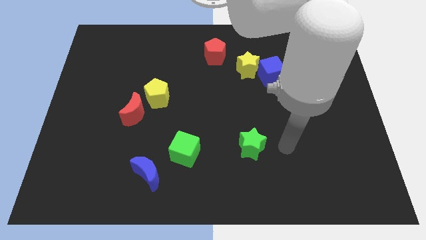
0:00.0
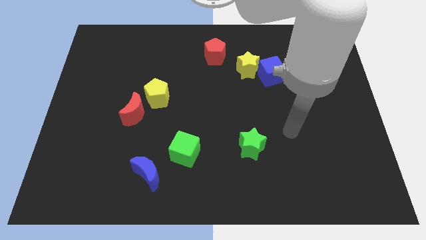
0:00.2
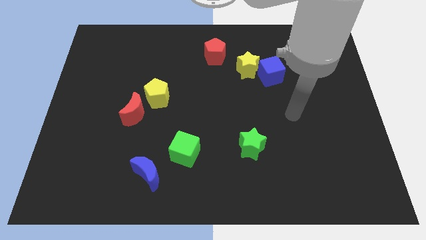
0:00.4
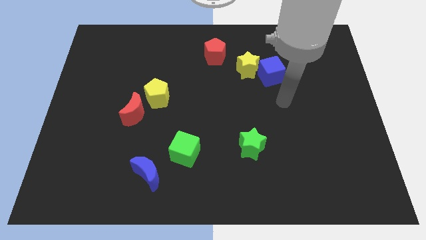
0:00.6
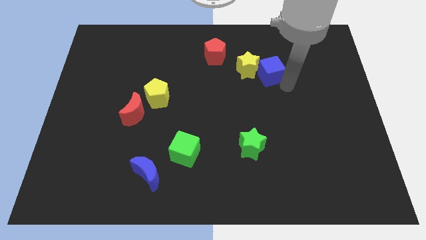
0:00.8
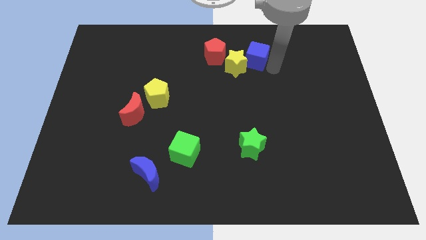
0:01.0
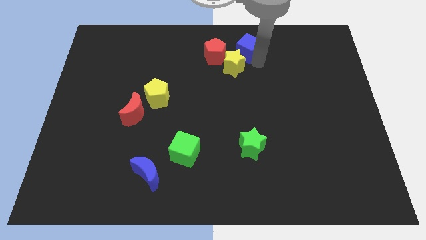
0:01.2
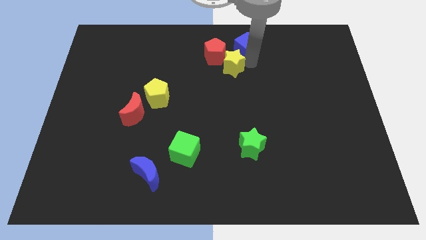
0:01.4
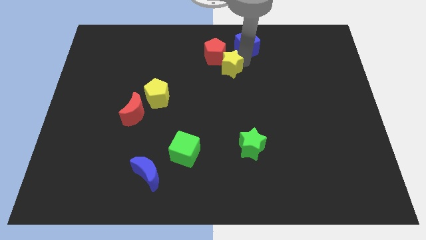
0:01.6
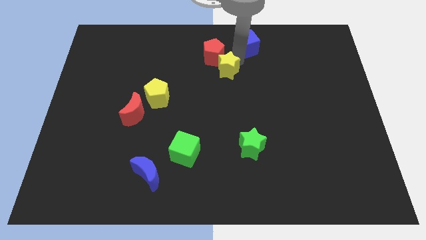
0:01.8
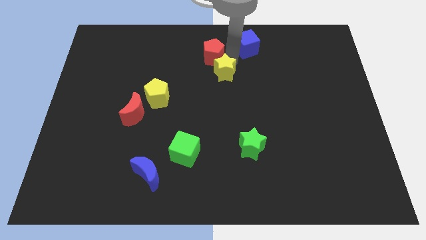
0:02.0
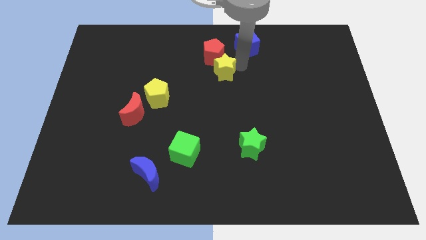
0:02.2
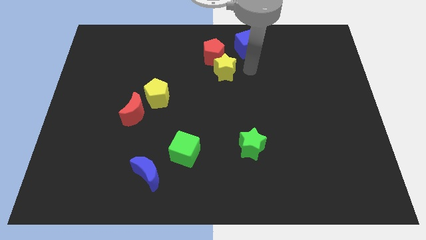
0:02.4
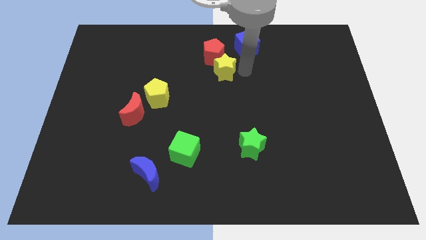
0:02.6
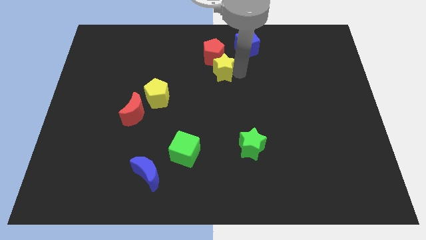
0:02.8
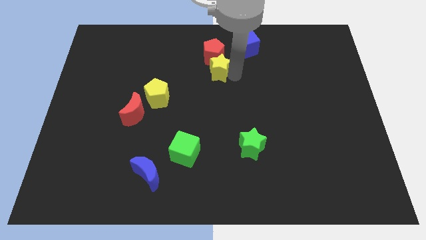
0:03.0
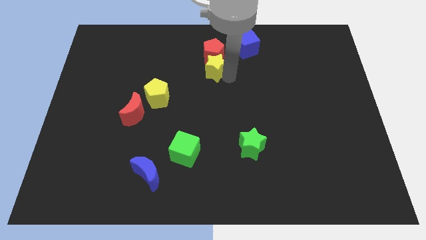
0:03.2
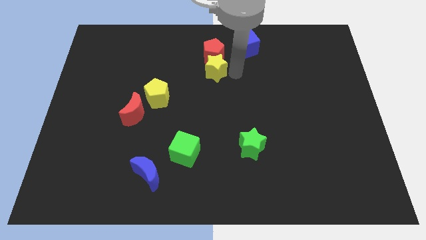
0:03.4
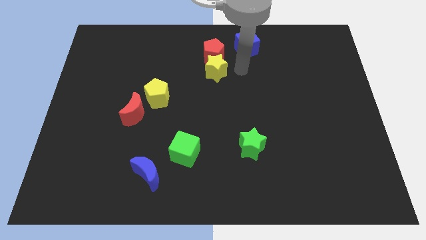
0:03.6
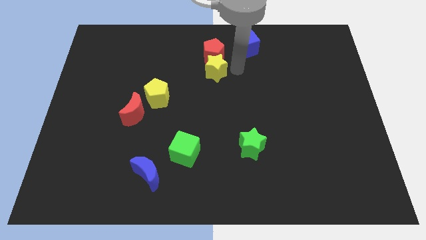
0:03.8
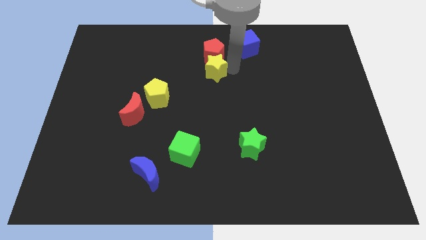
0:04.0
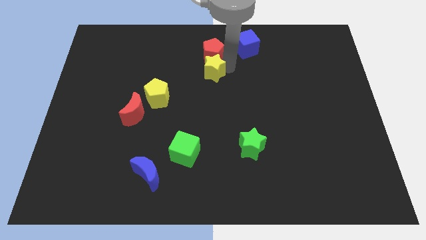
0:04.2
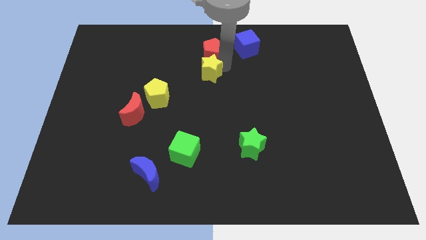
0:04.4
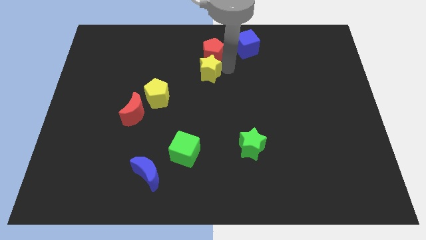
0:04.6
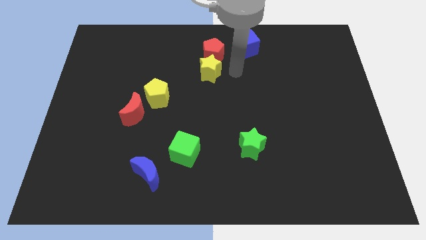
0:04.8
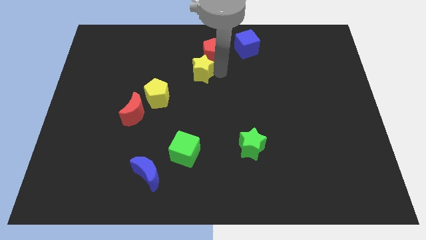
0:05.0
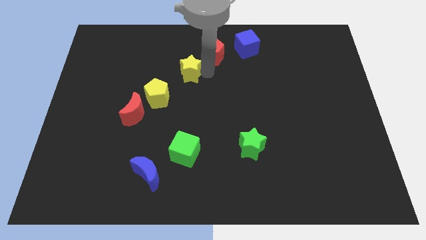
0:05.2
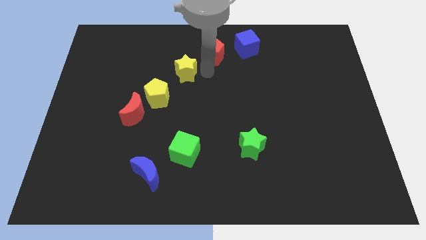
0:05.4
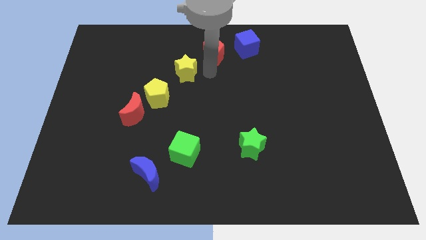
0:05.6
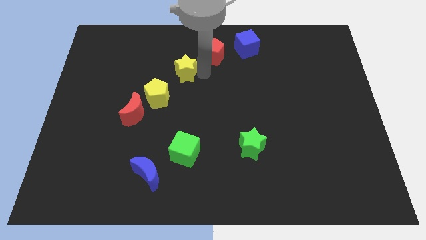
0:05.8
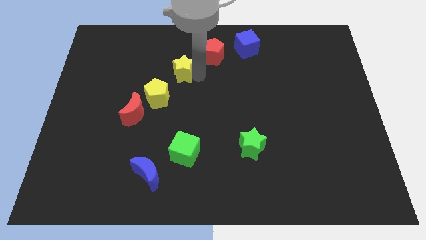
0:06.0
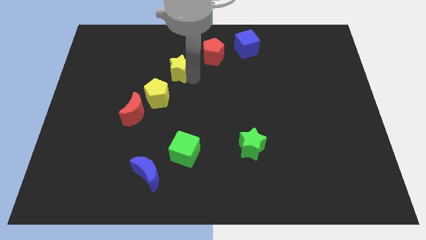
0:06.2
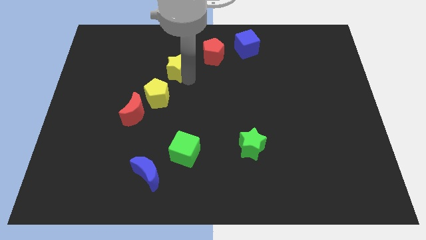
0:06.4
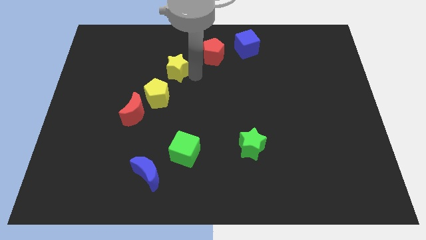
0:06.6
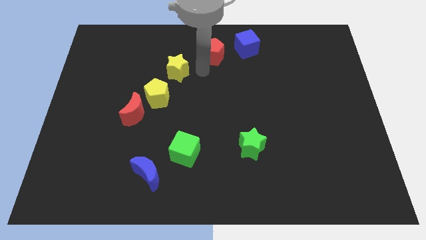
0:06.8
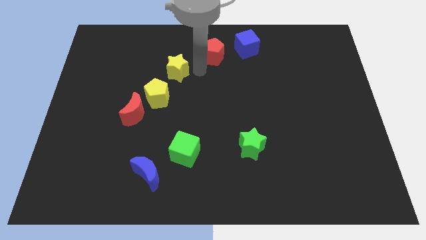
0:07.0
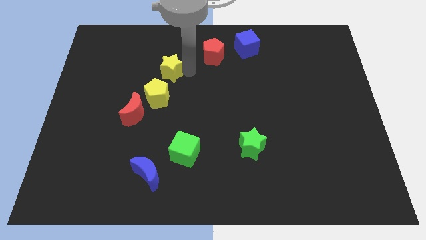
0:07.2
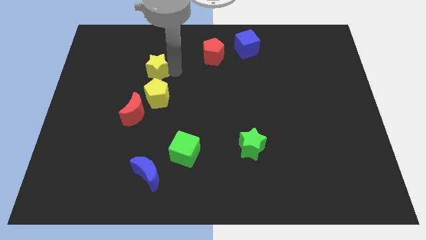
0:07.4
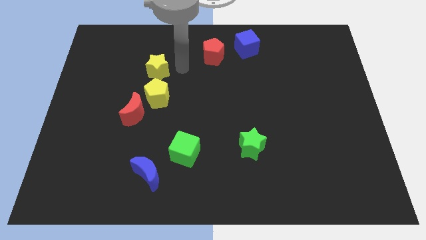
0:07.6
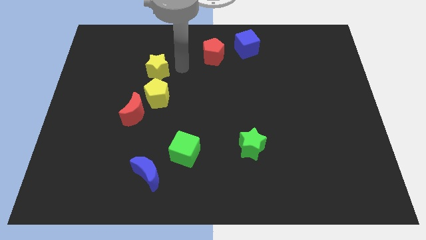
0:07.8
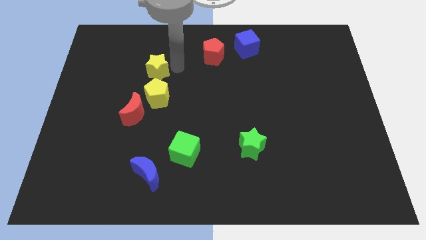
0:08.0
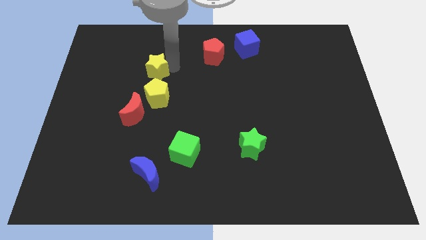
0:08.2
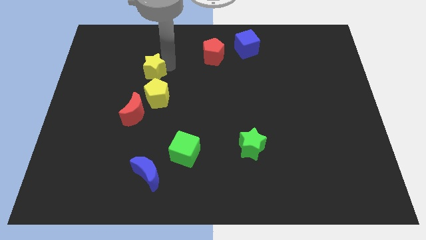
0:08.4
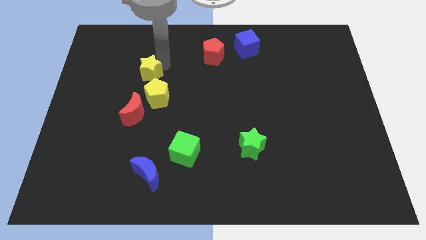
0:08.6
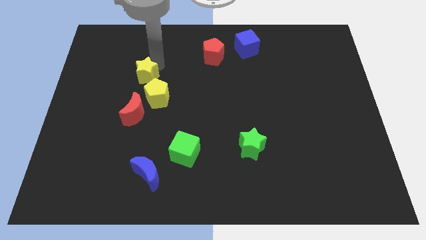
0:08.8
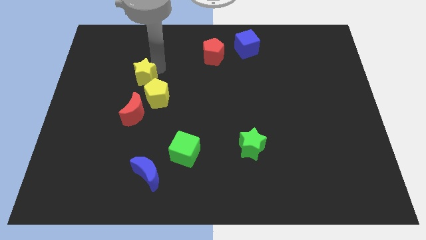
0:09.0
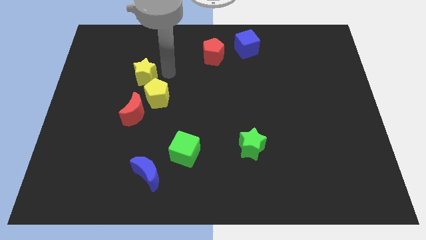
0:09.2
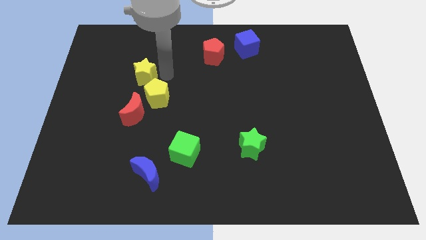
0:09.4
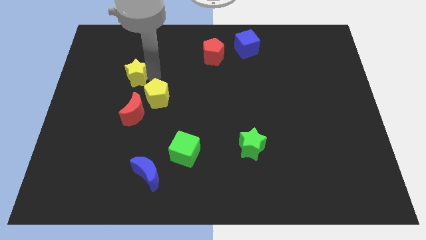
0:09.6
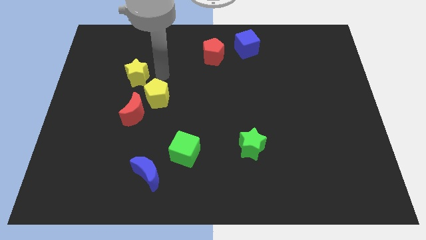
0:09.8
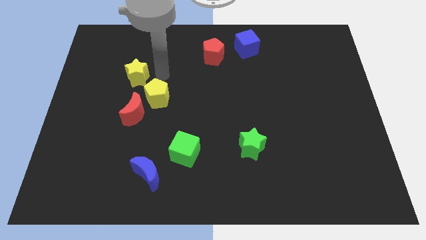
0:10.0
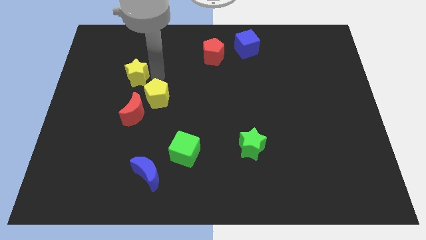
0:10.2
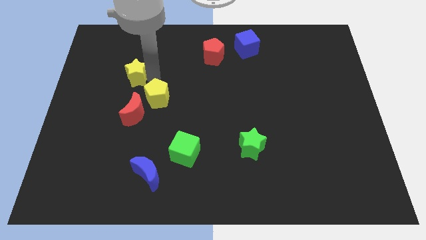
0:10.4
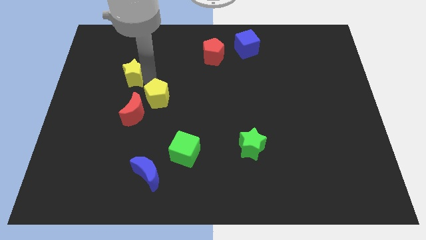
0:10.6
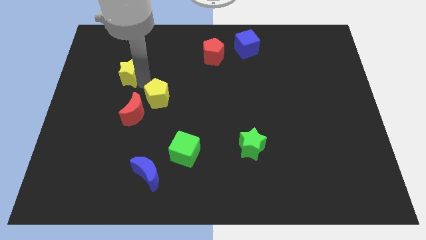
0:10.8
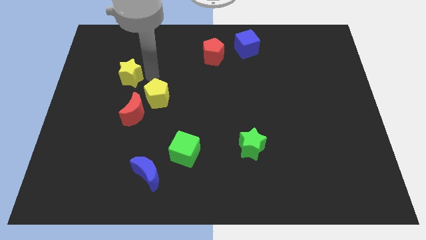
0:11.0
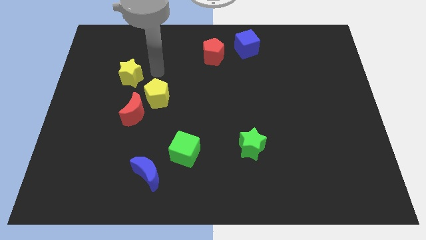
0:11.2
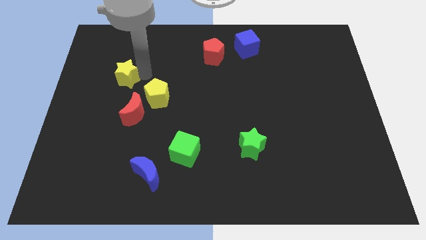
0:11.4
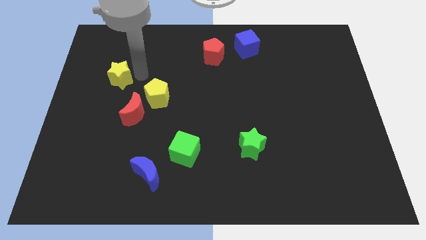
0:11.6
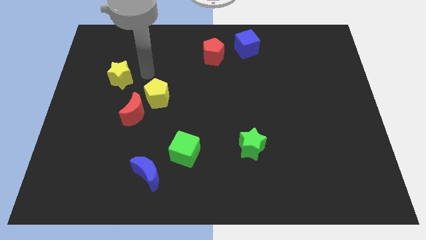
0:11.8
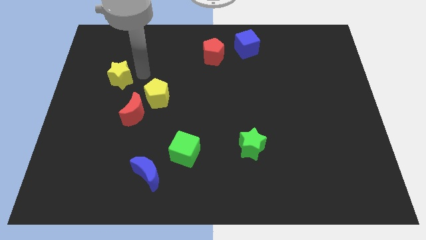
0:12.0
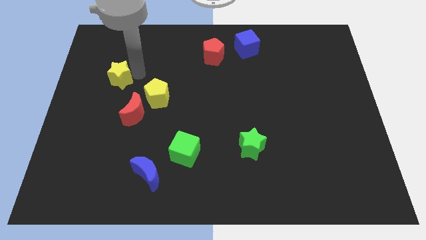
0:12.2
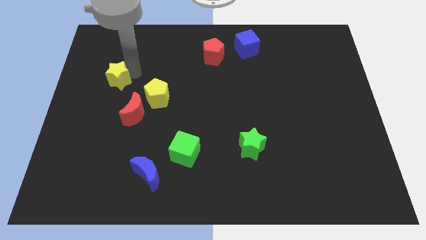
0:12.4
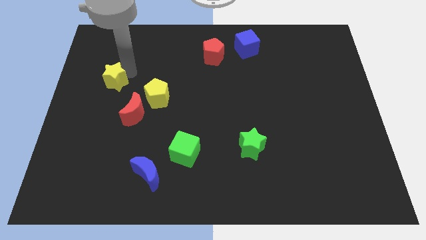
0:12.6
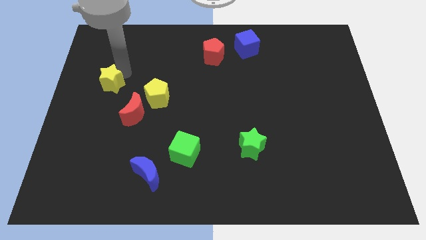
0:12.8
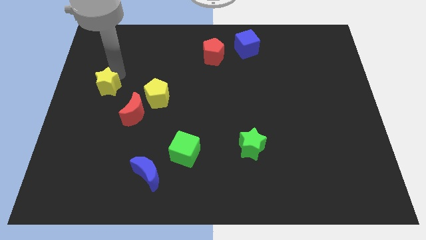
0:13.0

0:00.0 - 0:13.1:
move the yellow star to the left side

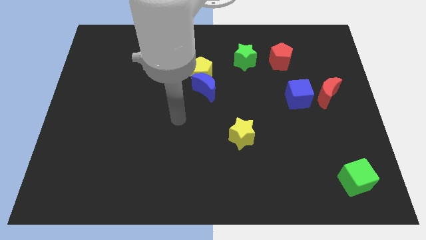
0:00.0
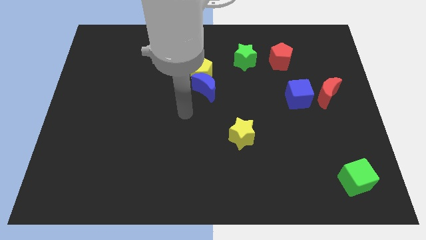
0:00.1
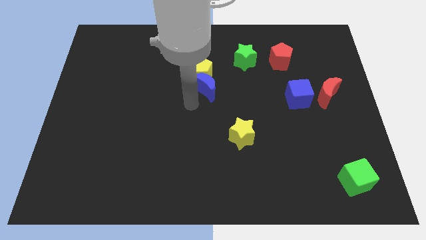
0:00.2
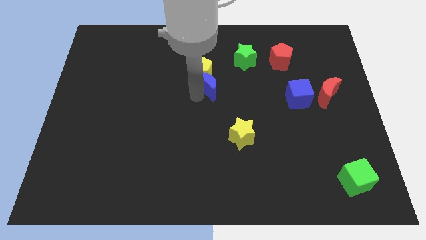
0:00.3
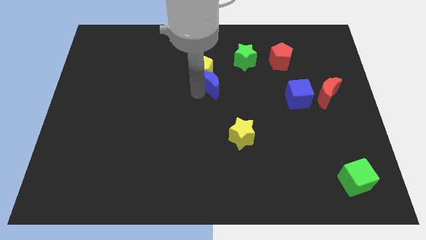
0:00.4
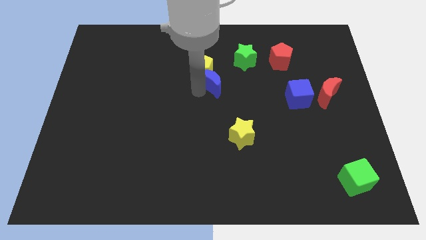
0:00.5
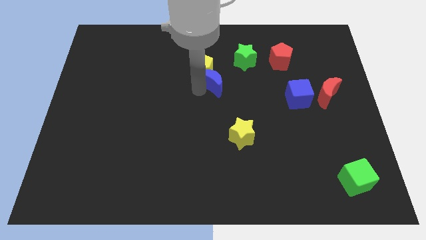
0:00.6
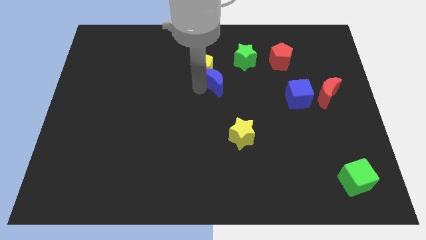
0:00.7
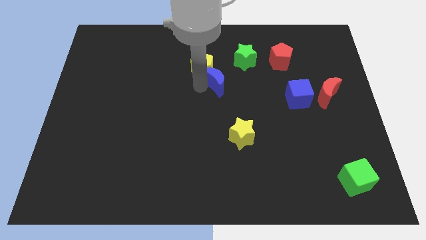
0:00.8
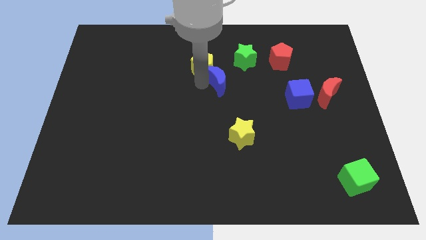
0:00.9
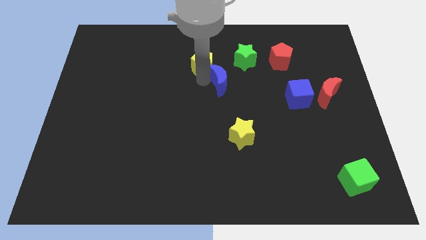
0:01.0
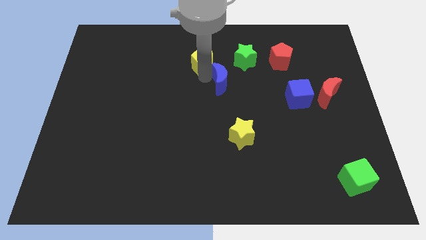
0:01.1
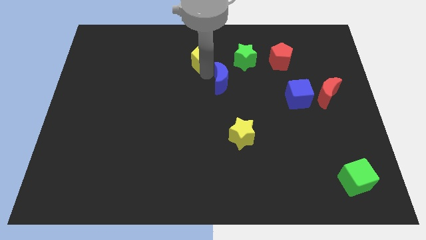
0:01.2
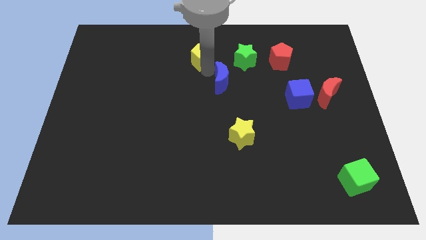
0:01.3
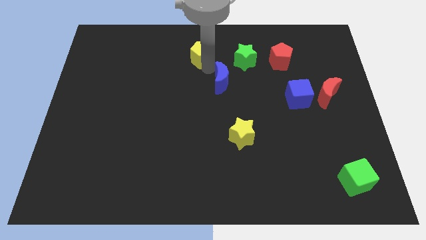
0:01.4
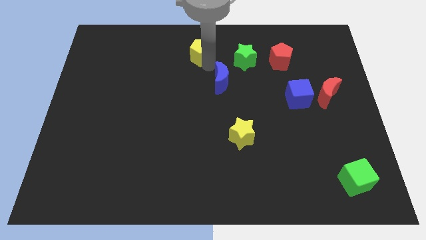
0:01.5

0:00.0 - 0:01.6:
put the yellow pentagon to the towards your base
